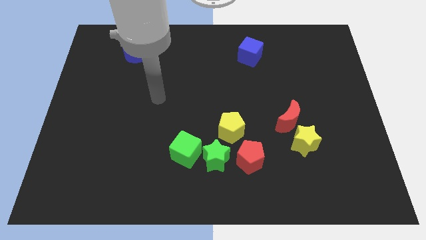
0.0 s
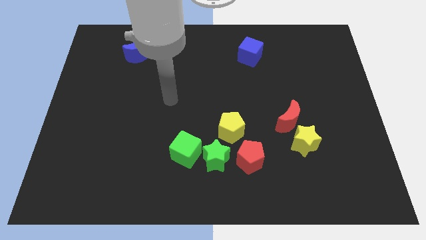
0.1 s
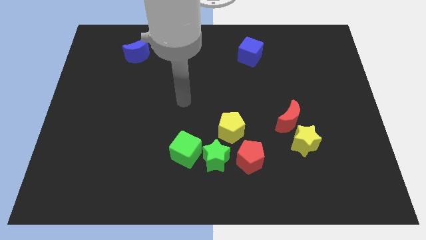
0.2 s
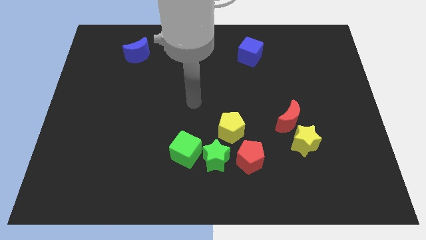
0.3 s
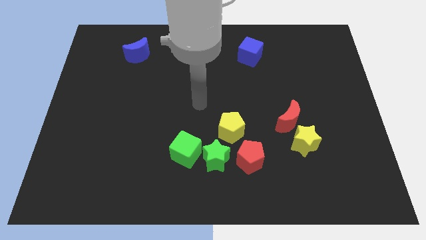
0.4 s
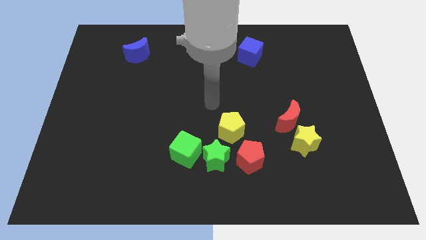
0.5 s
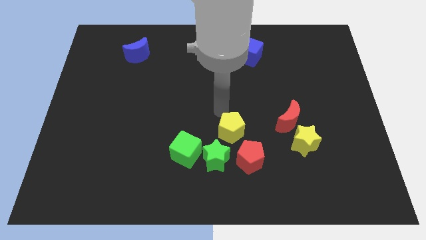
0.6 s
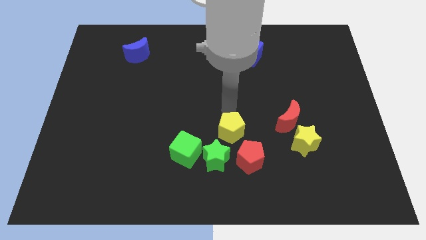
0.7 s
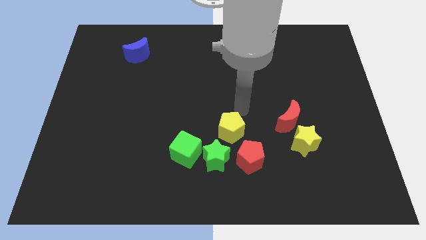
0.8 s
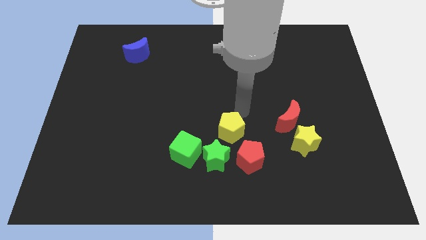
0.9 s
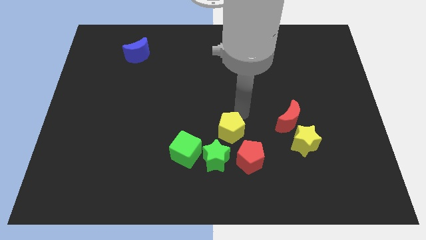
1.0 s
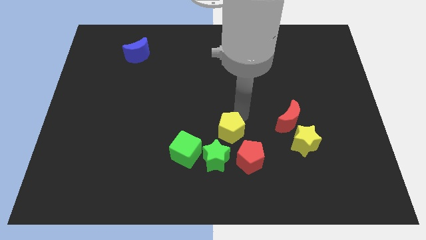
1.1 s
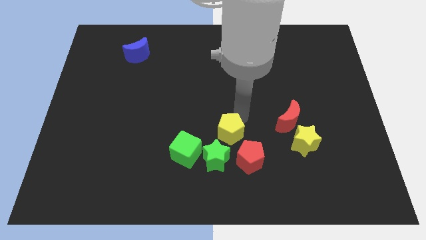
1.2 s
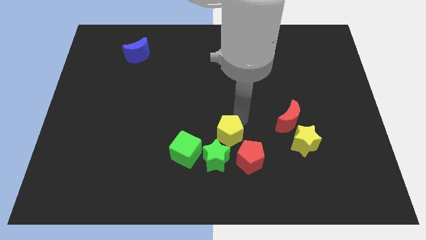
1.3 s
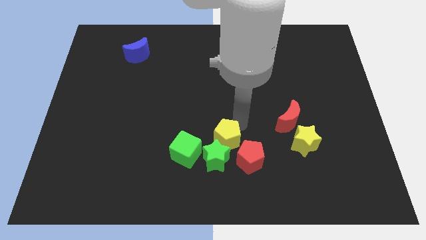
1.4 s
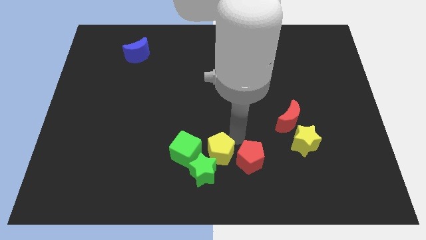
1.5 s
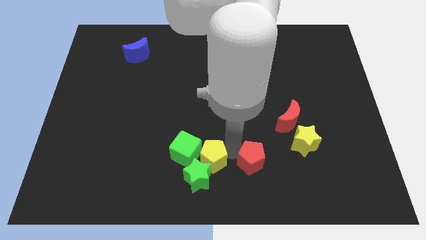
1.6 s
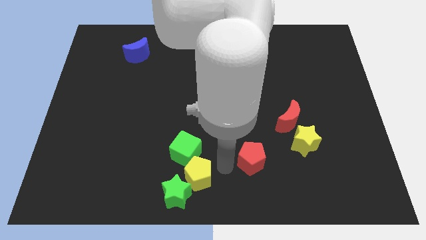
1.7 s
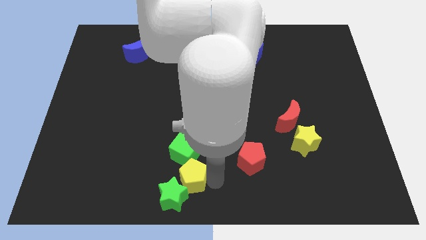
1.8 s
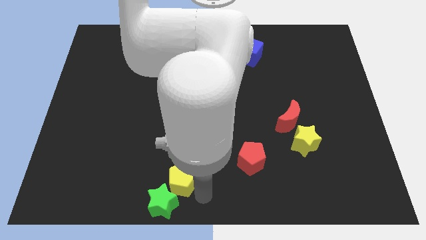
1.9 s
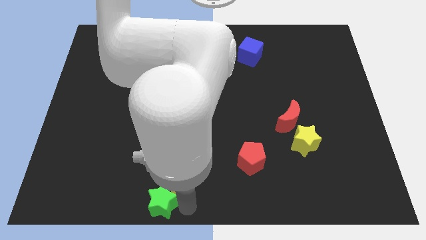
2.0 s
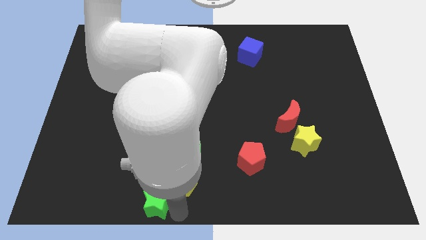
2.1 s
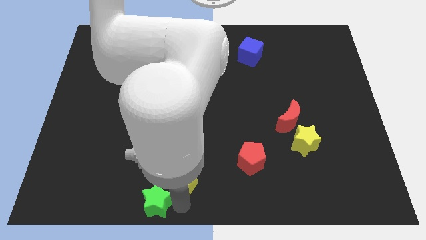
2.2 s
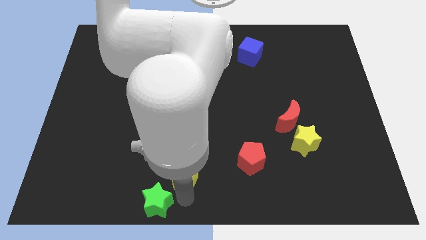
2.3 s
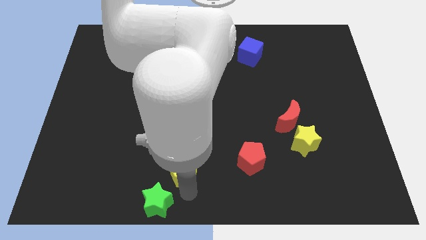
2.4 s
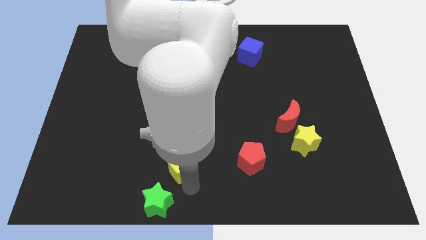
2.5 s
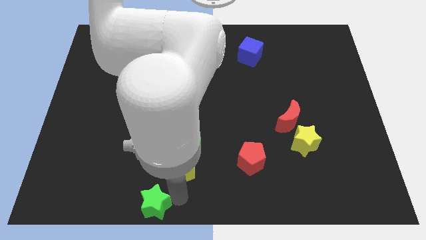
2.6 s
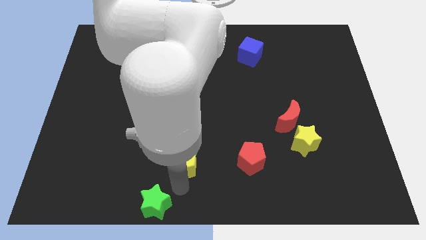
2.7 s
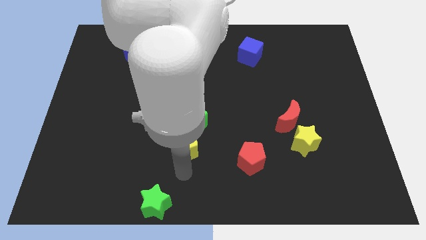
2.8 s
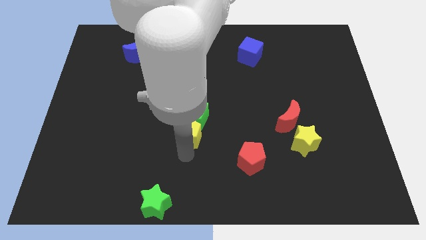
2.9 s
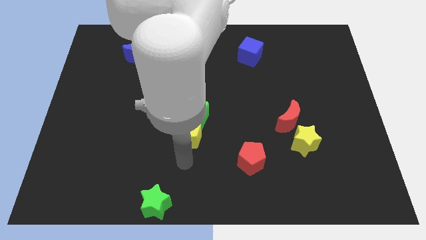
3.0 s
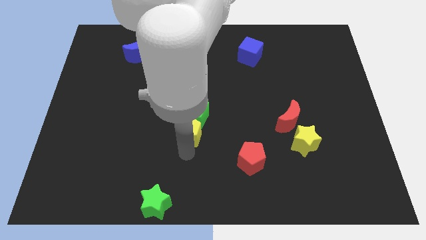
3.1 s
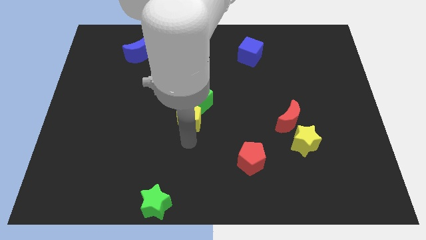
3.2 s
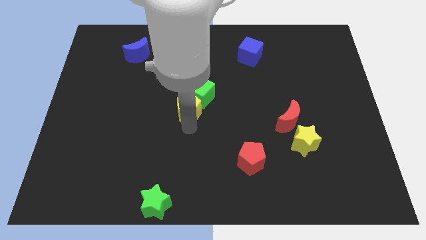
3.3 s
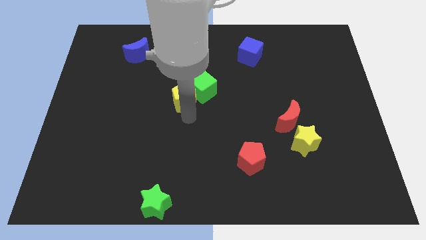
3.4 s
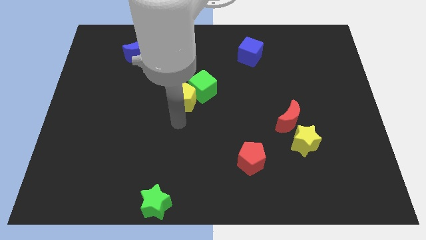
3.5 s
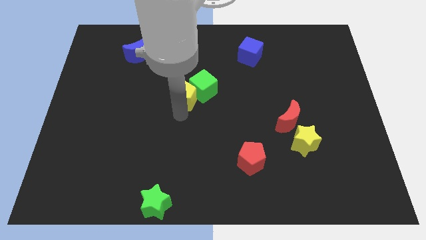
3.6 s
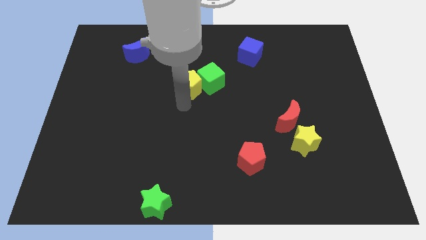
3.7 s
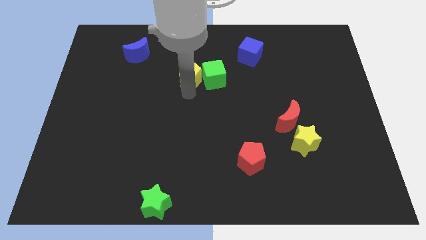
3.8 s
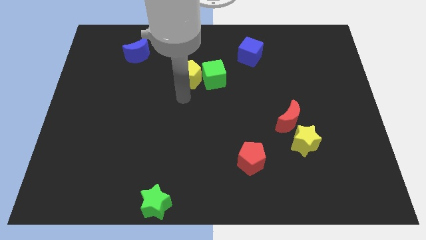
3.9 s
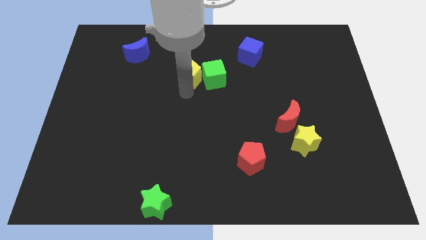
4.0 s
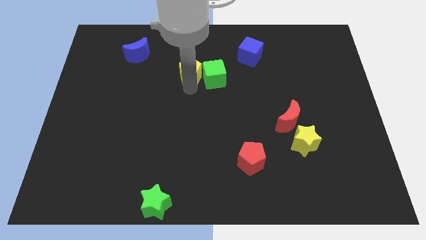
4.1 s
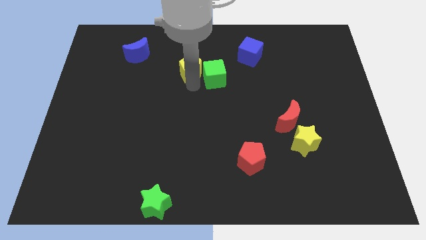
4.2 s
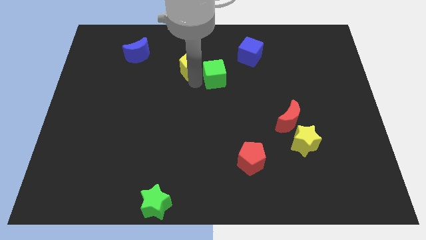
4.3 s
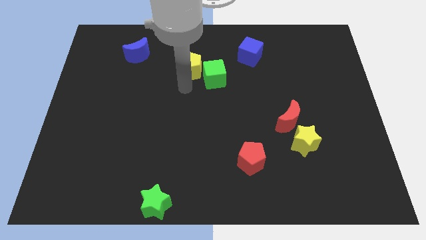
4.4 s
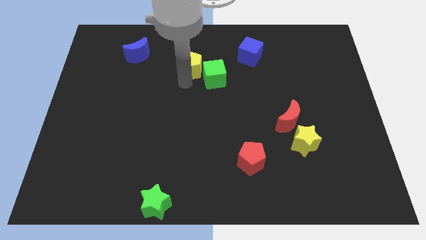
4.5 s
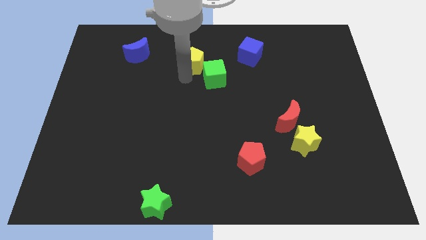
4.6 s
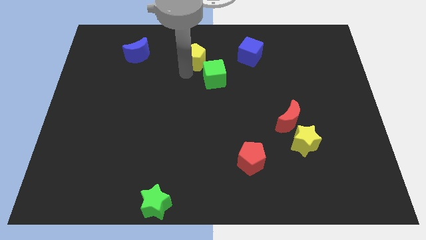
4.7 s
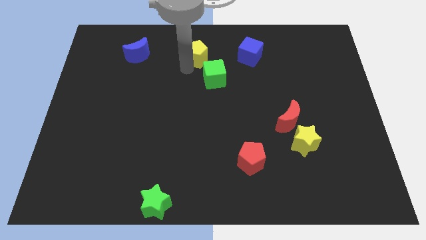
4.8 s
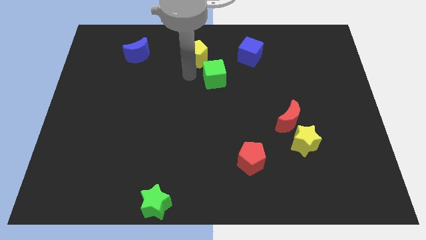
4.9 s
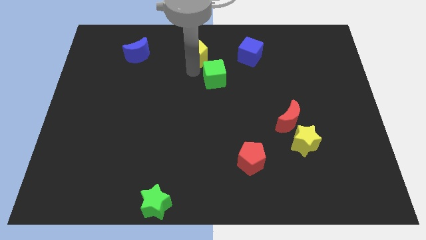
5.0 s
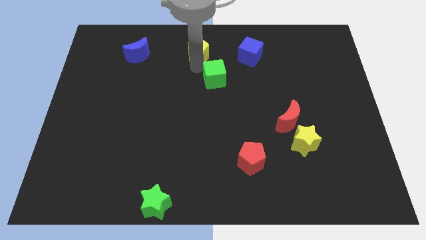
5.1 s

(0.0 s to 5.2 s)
slide the yellow pentagon to the towards your base

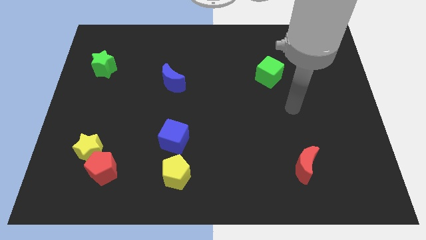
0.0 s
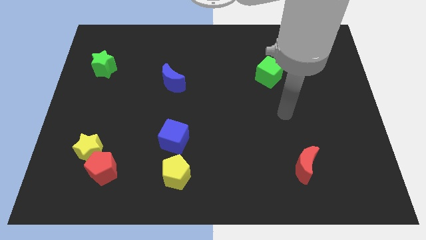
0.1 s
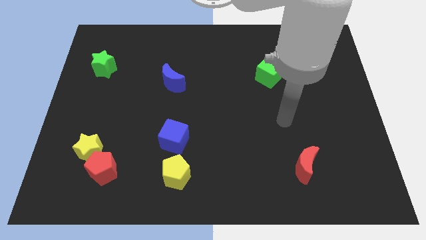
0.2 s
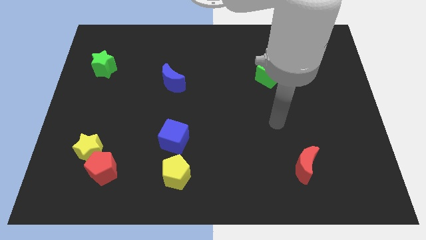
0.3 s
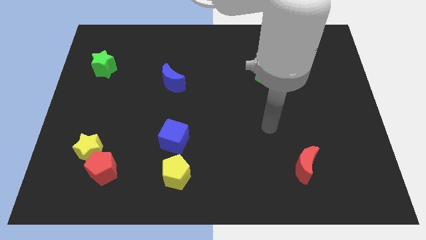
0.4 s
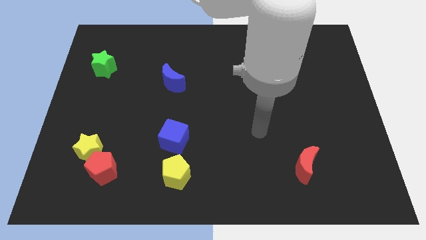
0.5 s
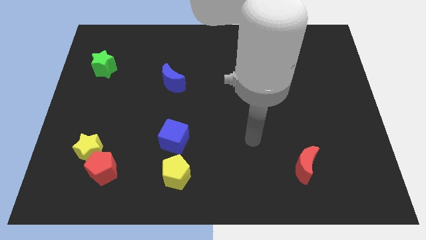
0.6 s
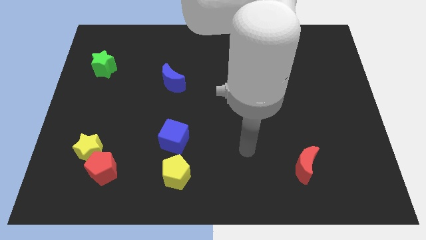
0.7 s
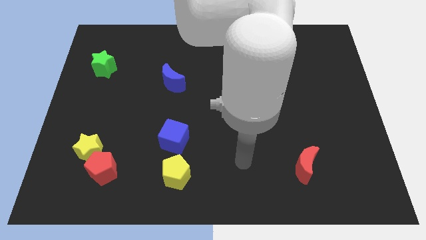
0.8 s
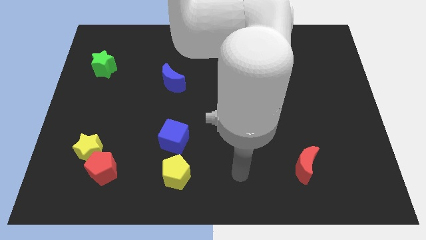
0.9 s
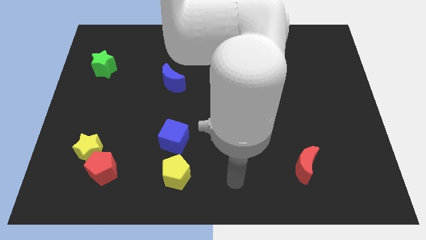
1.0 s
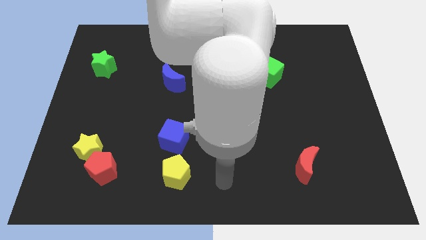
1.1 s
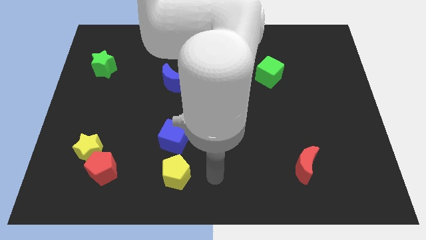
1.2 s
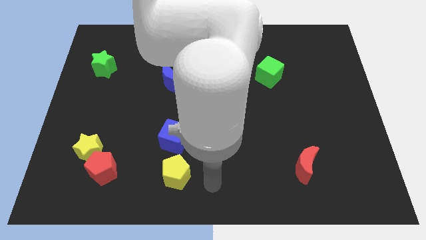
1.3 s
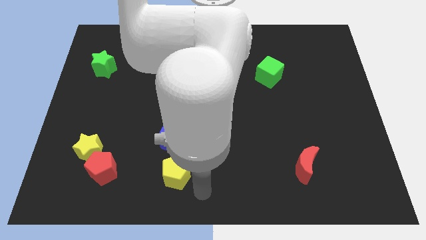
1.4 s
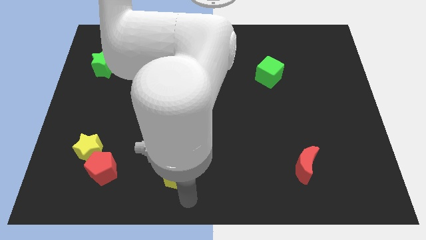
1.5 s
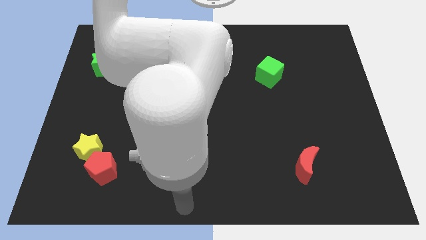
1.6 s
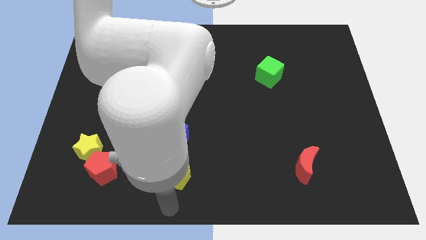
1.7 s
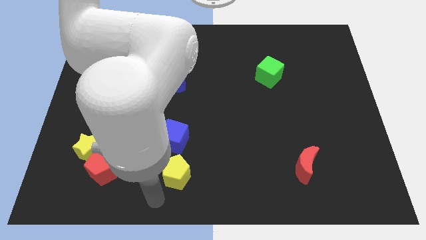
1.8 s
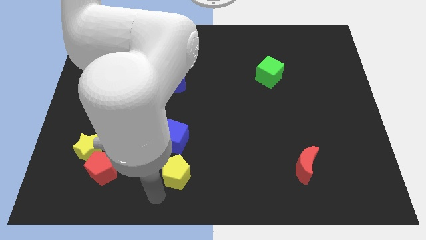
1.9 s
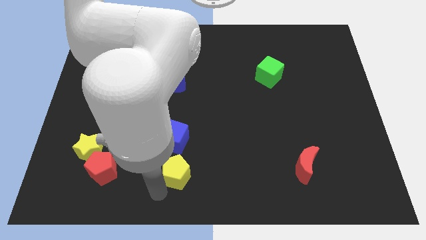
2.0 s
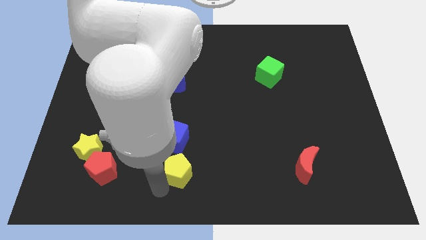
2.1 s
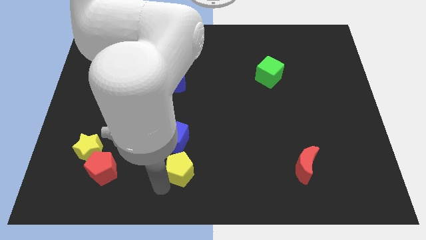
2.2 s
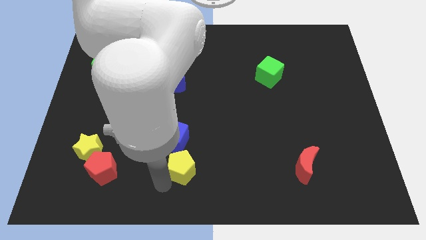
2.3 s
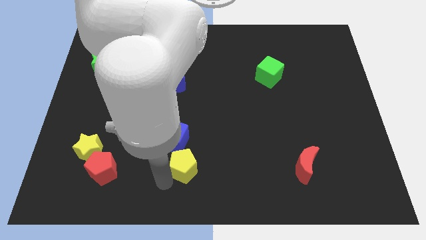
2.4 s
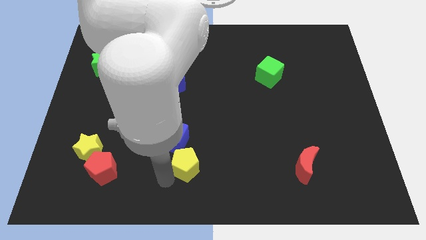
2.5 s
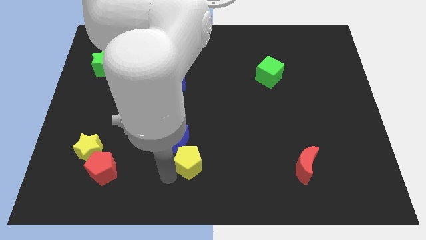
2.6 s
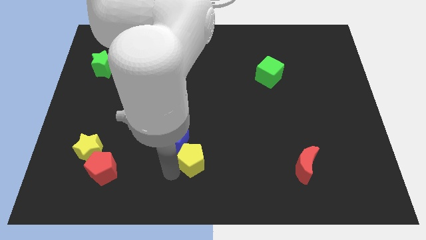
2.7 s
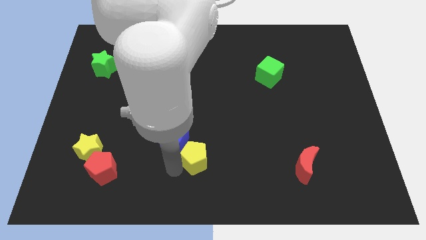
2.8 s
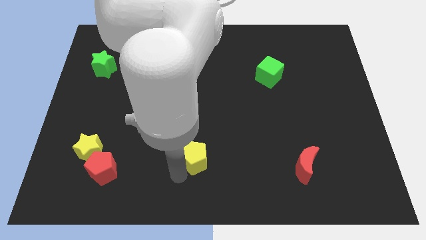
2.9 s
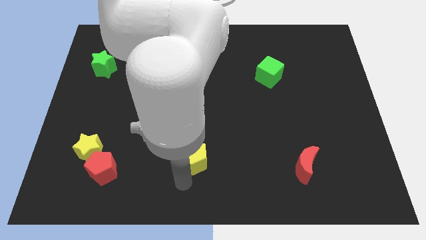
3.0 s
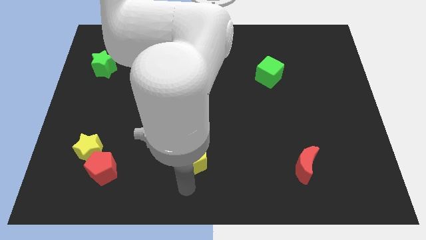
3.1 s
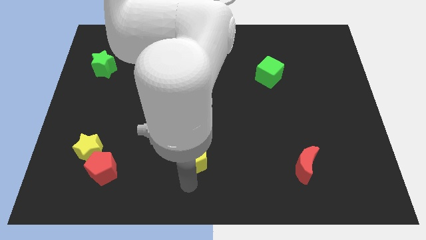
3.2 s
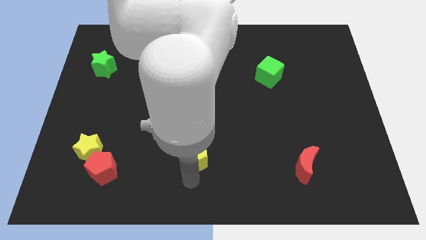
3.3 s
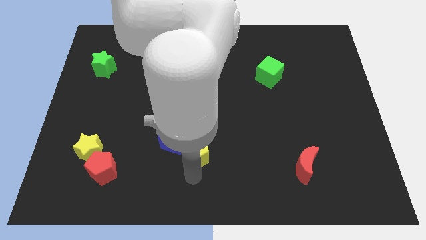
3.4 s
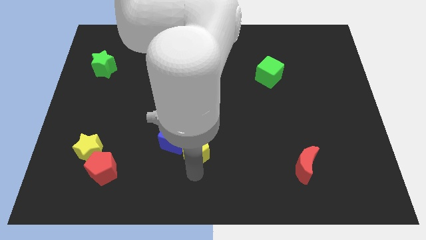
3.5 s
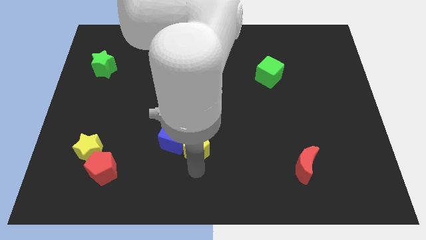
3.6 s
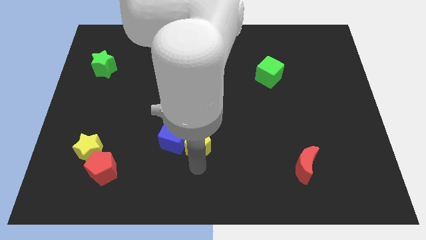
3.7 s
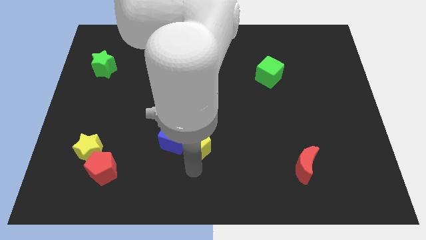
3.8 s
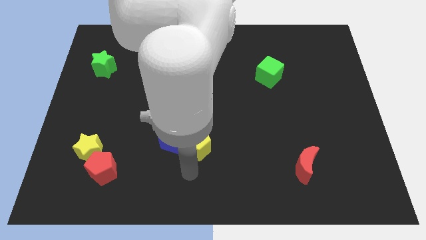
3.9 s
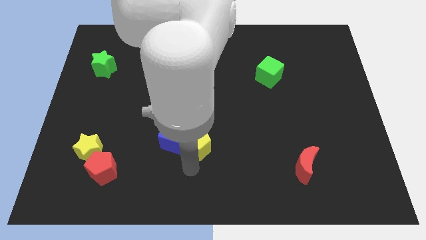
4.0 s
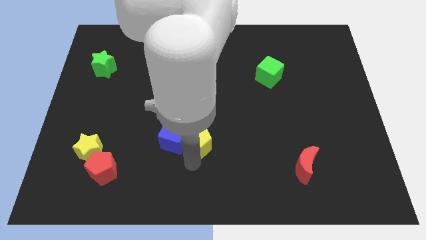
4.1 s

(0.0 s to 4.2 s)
slide the yellow pentagon to the middle of the board
